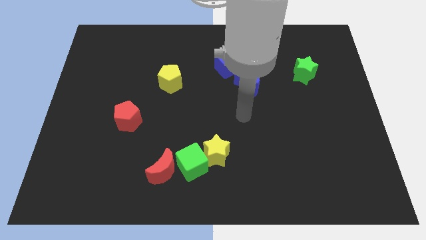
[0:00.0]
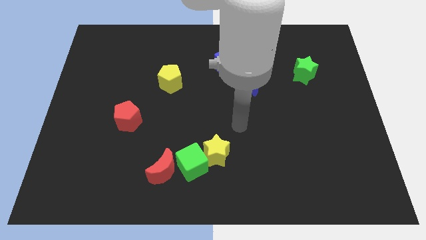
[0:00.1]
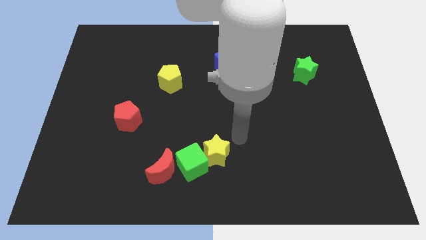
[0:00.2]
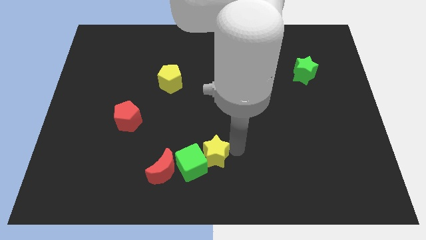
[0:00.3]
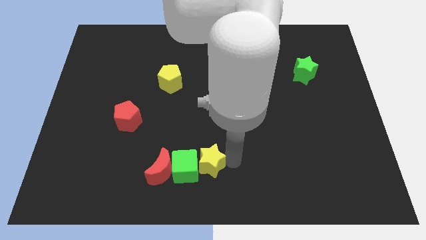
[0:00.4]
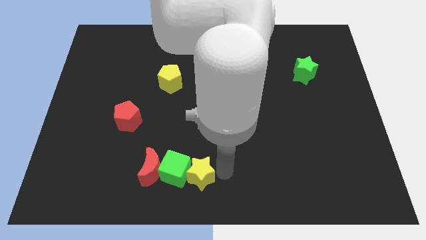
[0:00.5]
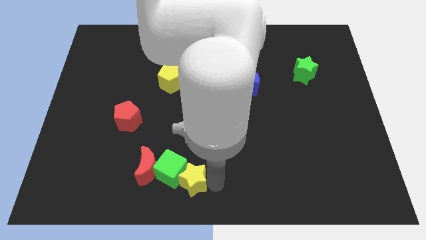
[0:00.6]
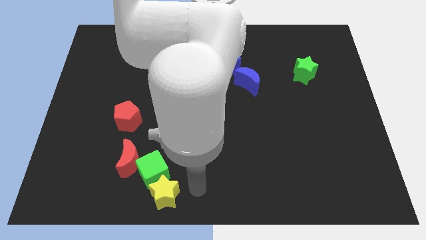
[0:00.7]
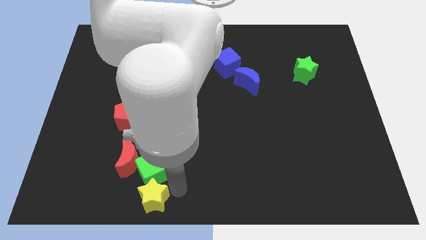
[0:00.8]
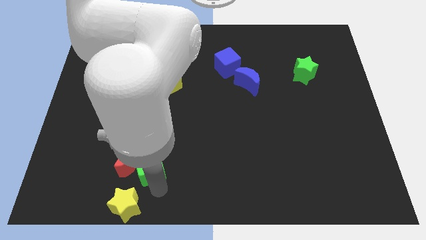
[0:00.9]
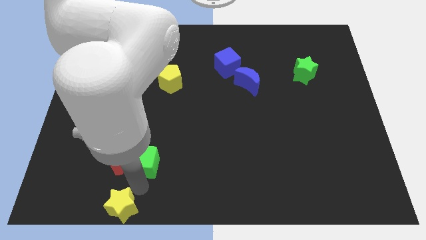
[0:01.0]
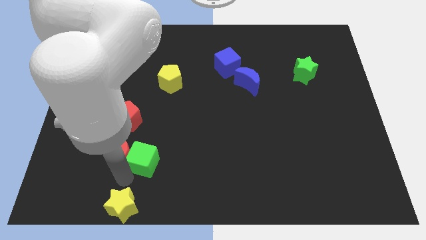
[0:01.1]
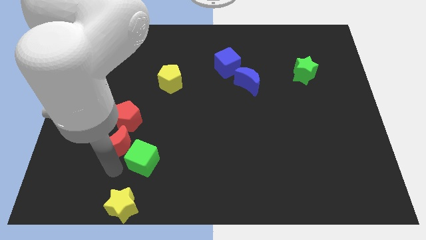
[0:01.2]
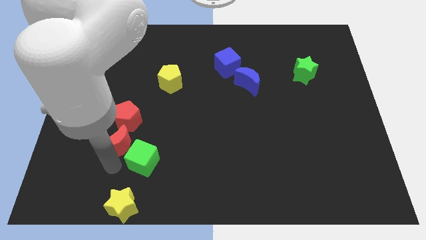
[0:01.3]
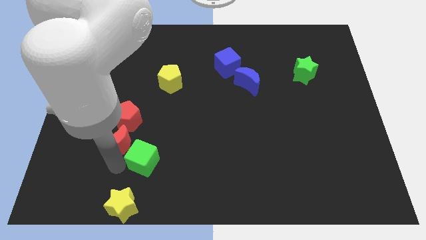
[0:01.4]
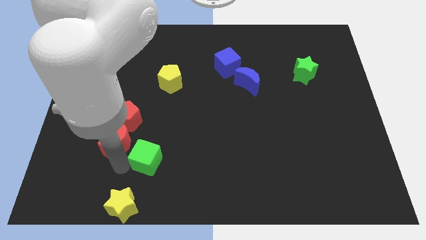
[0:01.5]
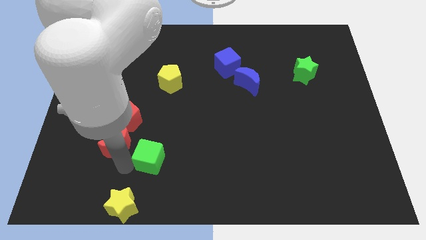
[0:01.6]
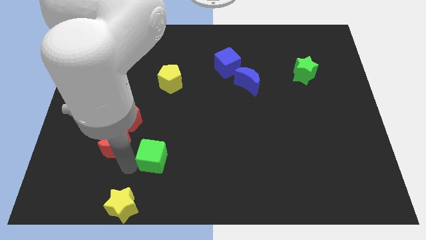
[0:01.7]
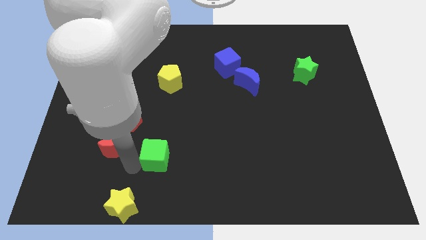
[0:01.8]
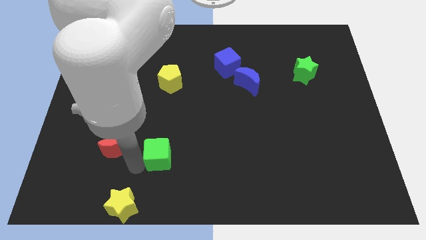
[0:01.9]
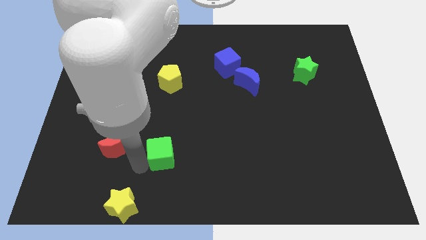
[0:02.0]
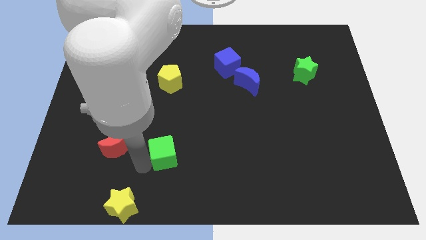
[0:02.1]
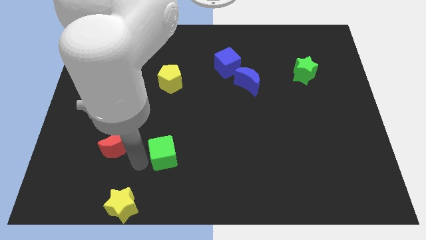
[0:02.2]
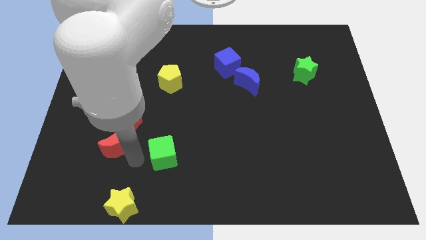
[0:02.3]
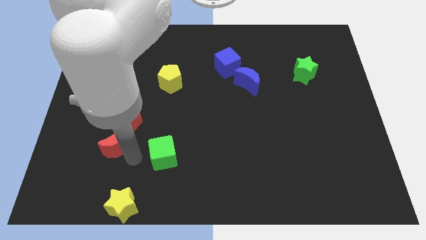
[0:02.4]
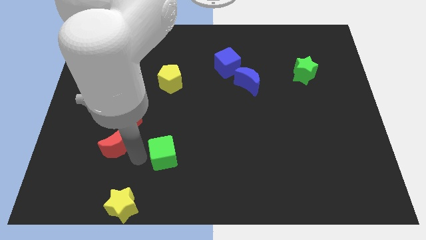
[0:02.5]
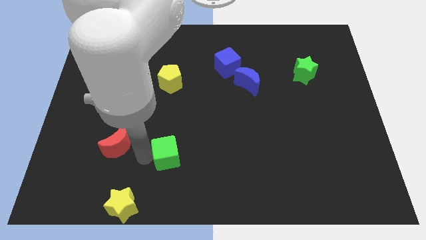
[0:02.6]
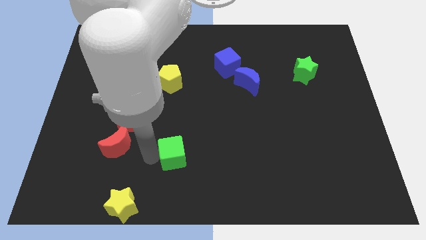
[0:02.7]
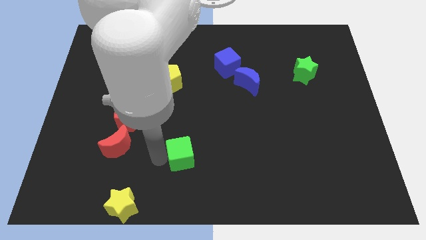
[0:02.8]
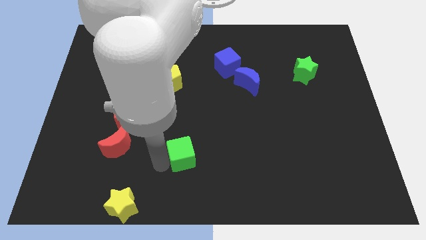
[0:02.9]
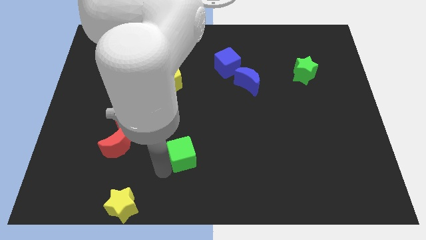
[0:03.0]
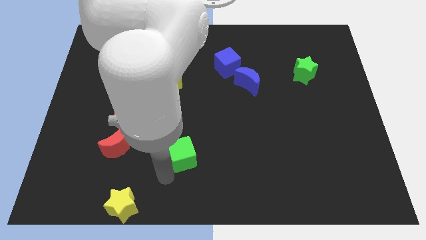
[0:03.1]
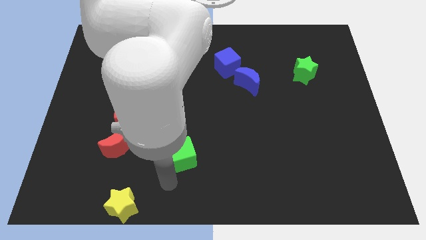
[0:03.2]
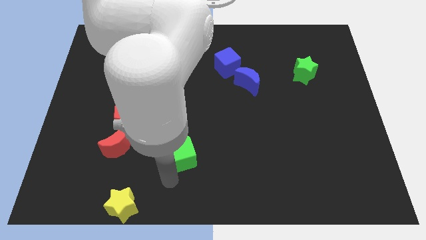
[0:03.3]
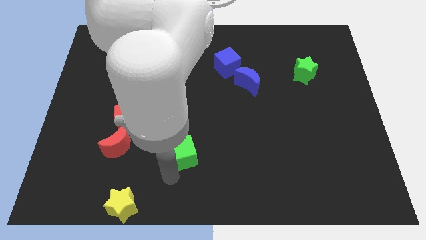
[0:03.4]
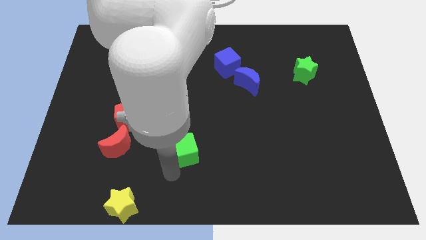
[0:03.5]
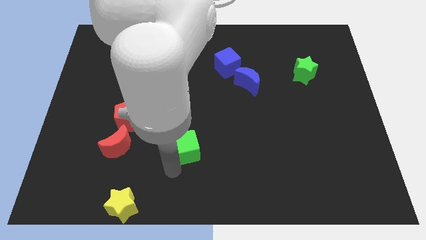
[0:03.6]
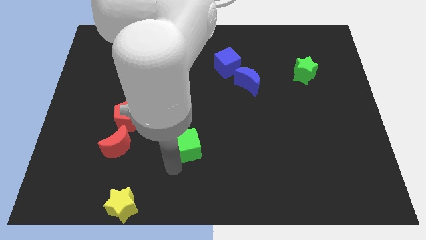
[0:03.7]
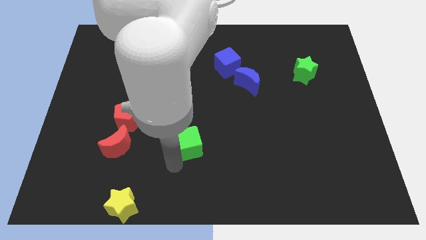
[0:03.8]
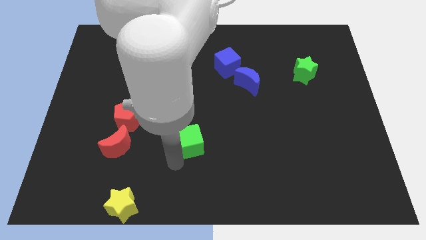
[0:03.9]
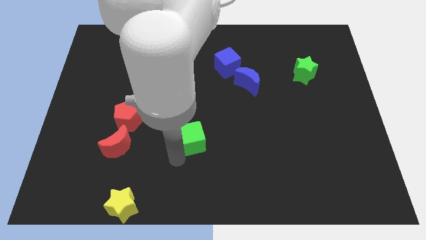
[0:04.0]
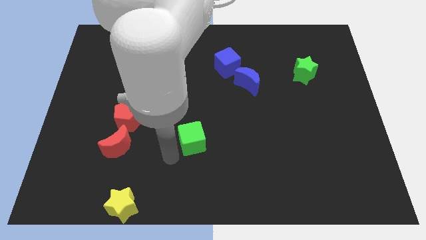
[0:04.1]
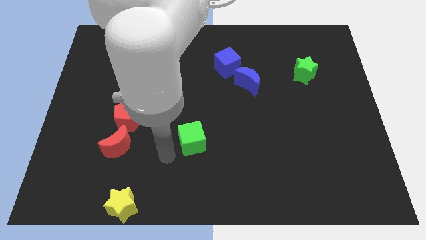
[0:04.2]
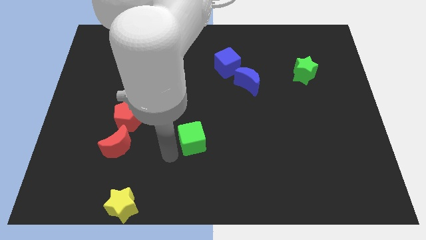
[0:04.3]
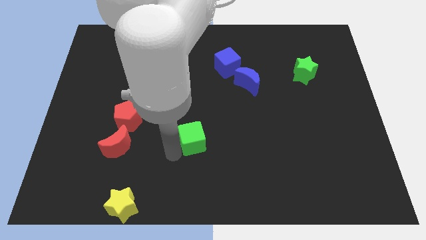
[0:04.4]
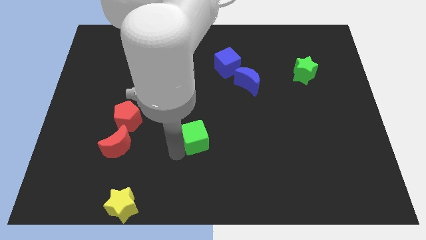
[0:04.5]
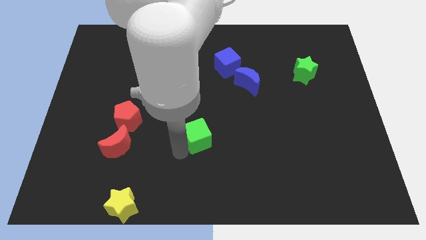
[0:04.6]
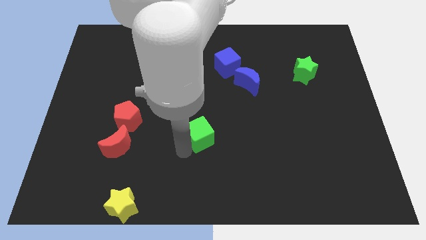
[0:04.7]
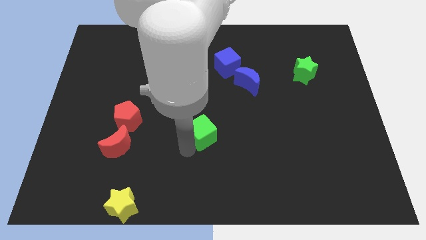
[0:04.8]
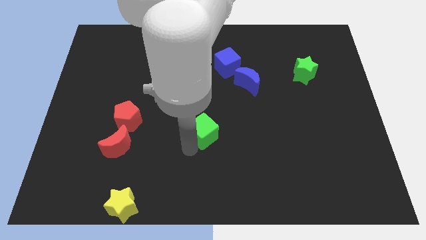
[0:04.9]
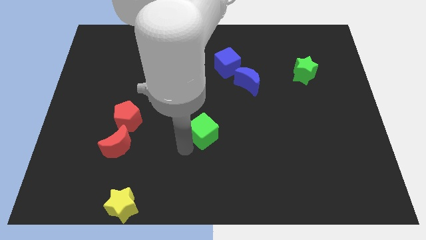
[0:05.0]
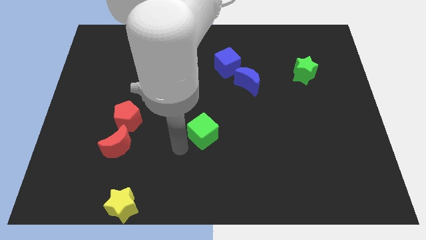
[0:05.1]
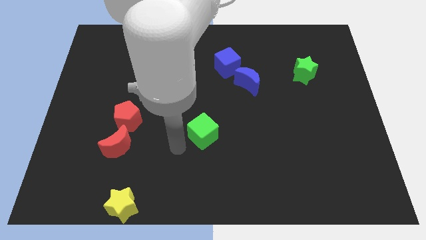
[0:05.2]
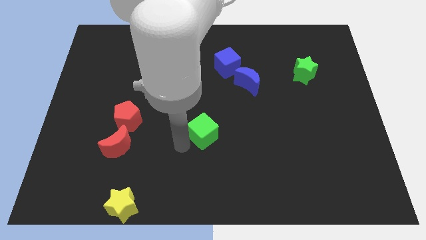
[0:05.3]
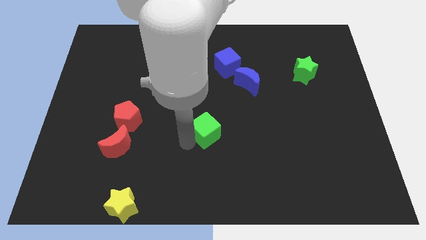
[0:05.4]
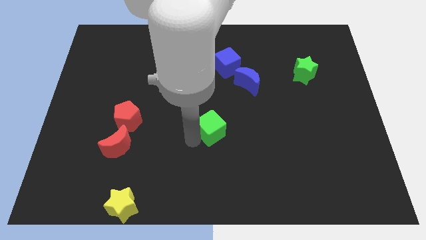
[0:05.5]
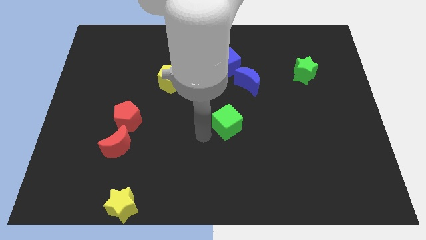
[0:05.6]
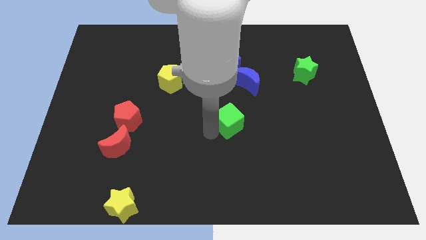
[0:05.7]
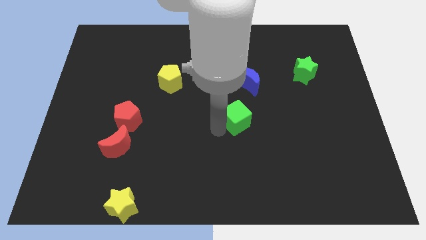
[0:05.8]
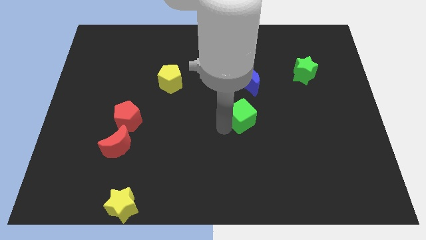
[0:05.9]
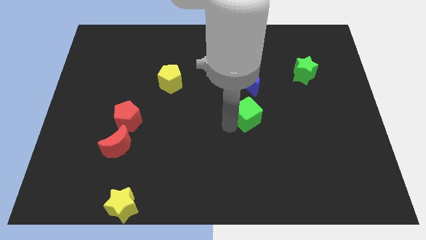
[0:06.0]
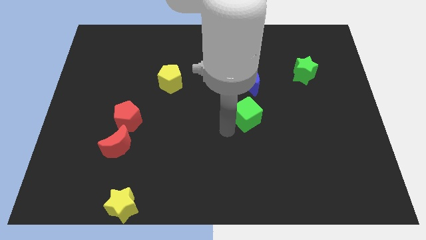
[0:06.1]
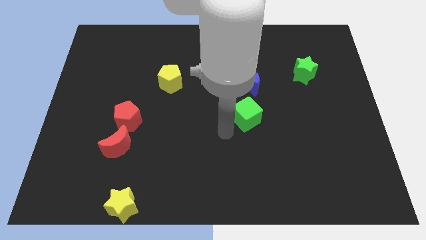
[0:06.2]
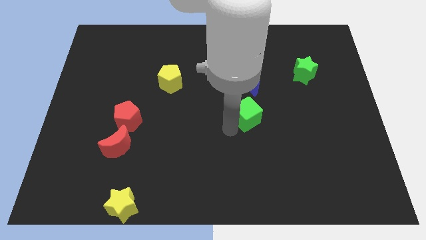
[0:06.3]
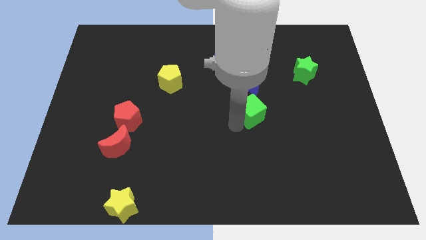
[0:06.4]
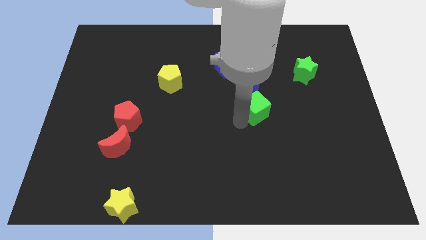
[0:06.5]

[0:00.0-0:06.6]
push the green cube up and right

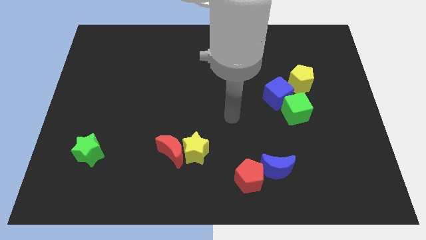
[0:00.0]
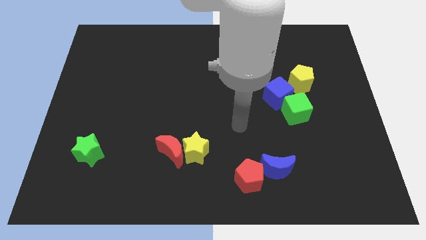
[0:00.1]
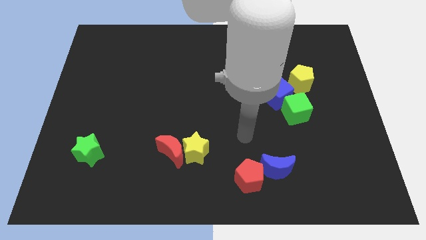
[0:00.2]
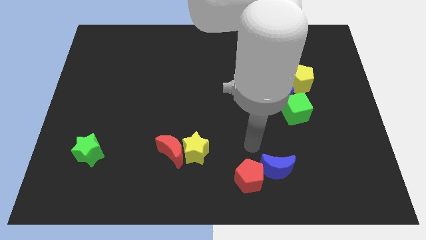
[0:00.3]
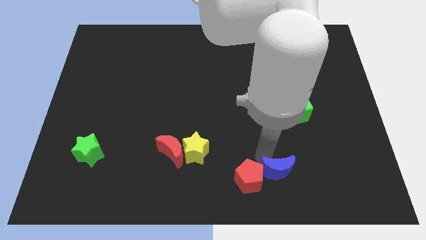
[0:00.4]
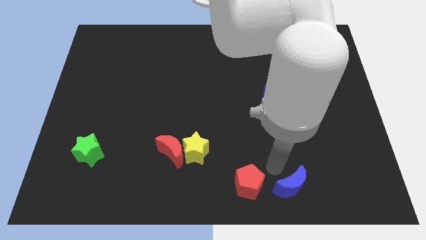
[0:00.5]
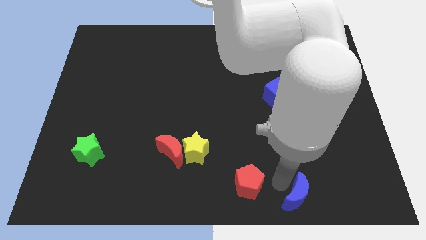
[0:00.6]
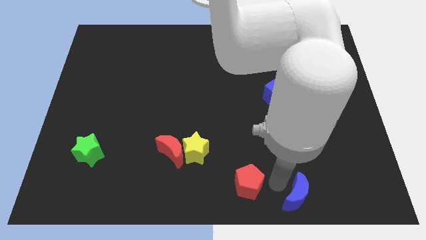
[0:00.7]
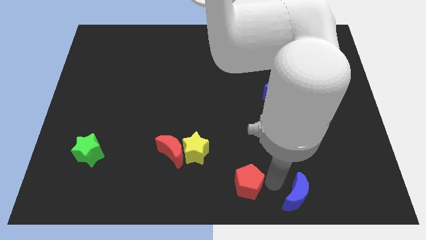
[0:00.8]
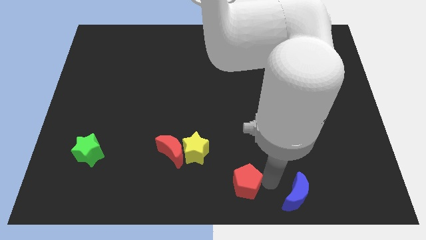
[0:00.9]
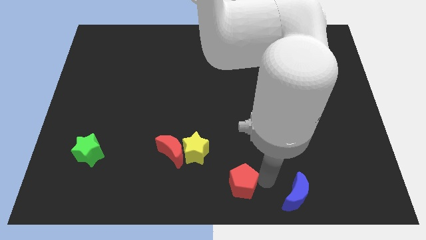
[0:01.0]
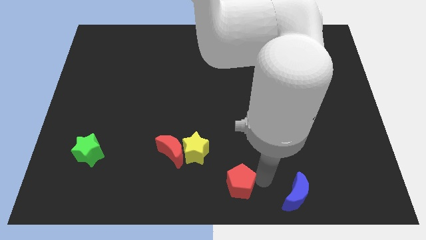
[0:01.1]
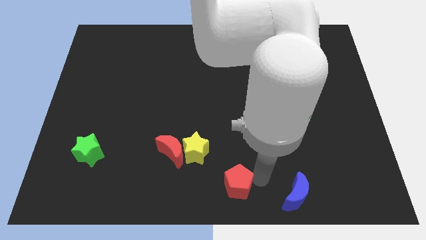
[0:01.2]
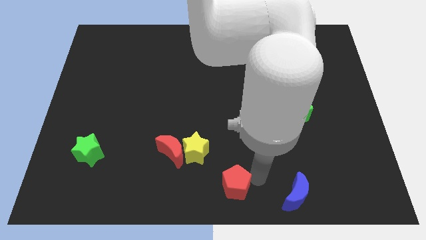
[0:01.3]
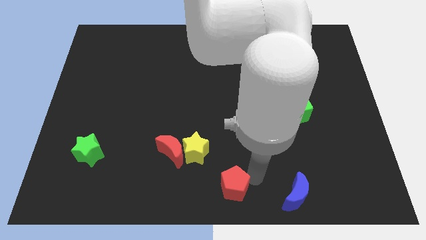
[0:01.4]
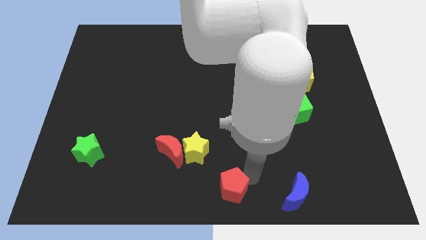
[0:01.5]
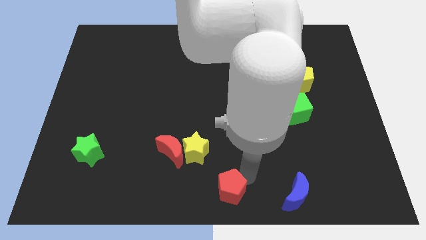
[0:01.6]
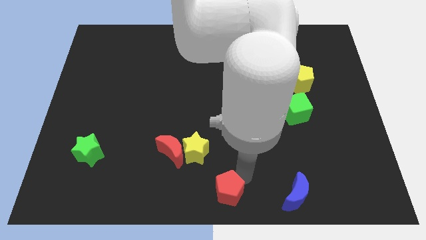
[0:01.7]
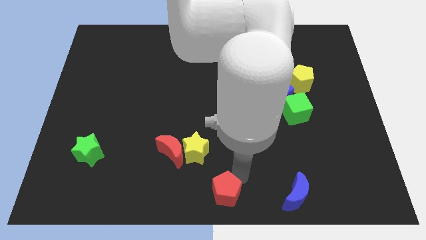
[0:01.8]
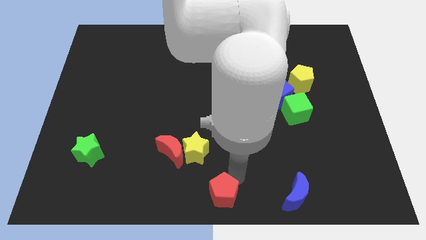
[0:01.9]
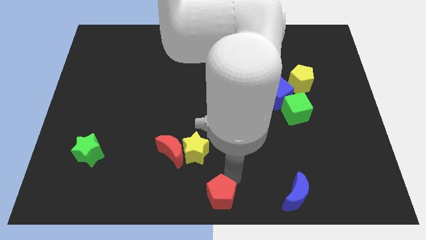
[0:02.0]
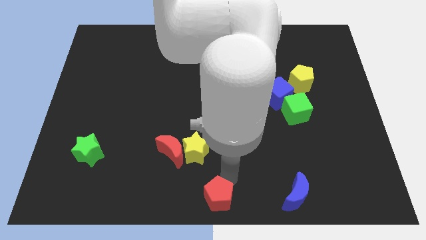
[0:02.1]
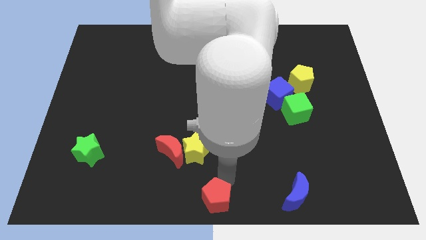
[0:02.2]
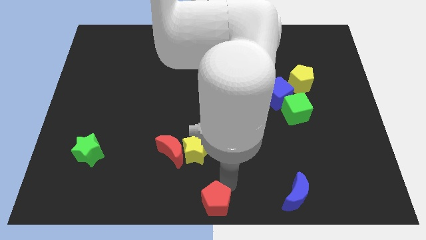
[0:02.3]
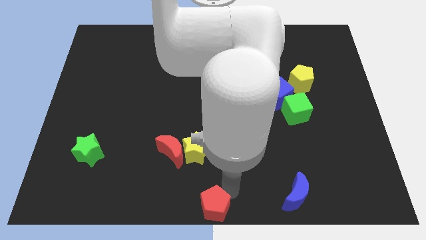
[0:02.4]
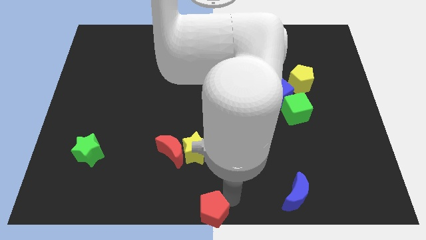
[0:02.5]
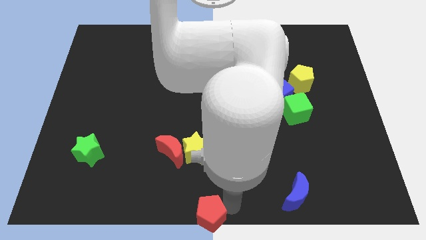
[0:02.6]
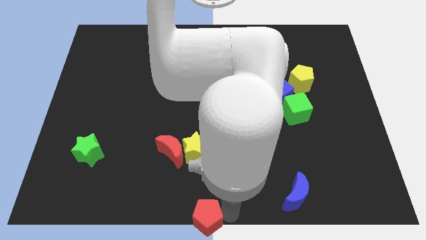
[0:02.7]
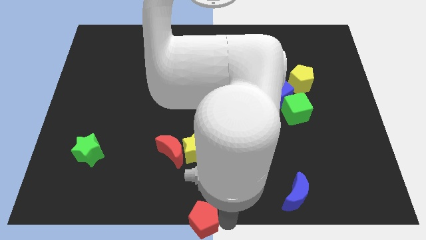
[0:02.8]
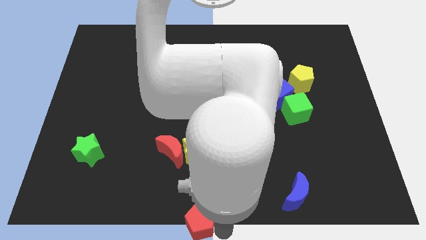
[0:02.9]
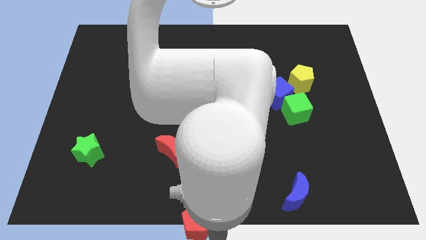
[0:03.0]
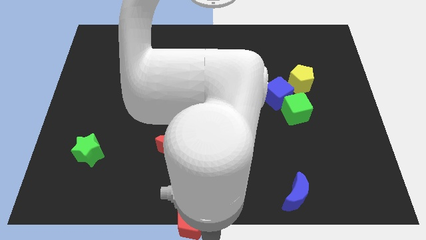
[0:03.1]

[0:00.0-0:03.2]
push the red pentagon left a little
